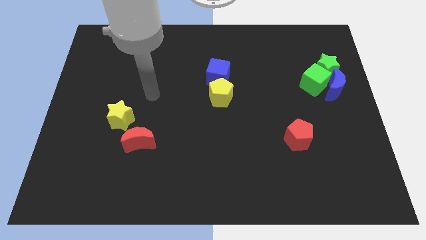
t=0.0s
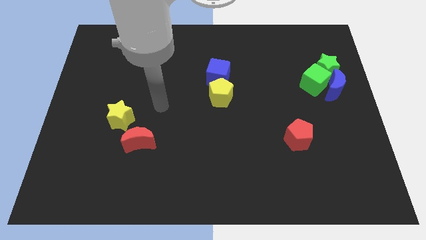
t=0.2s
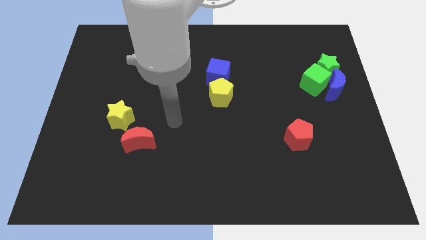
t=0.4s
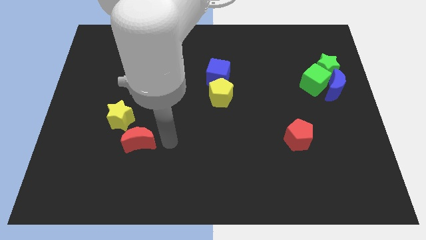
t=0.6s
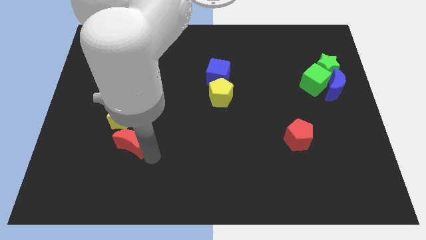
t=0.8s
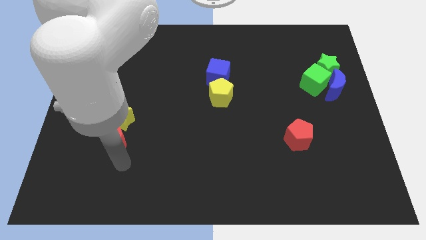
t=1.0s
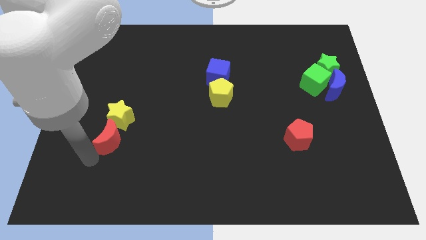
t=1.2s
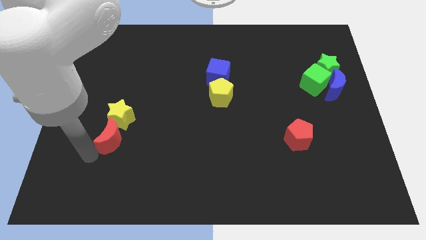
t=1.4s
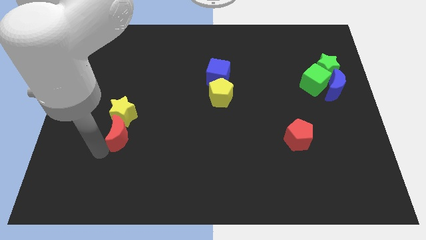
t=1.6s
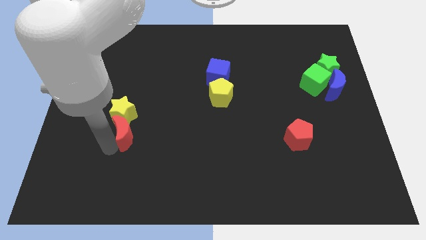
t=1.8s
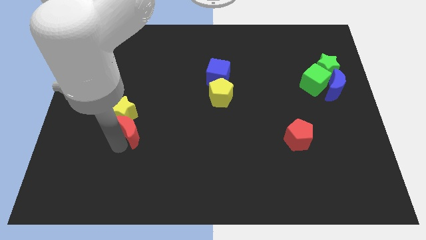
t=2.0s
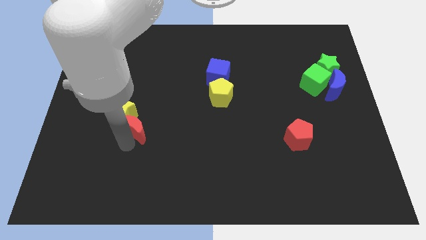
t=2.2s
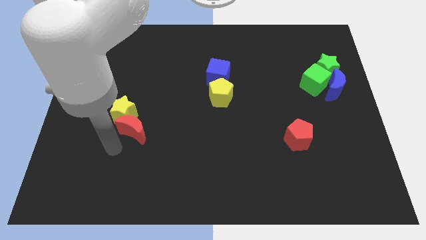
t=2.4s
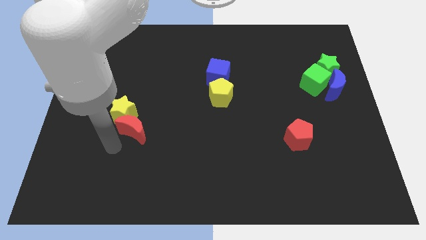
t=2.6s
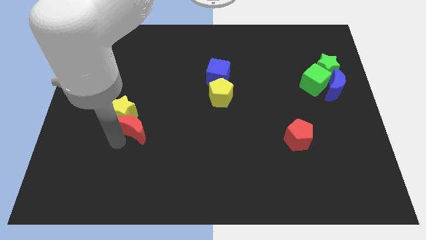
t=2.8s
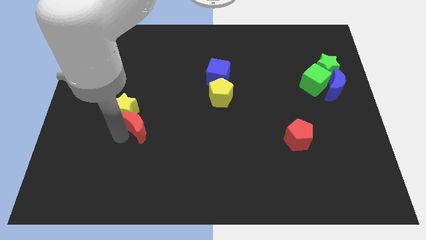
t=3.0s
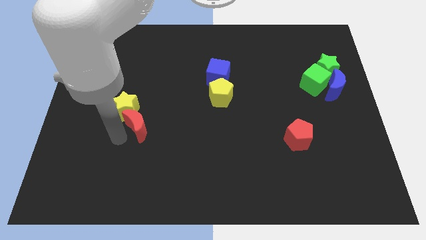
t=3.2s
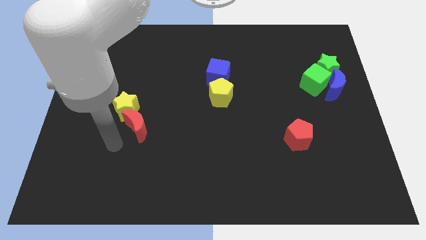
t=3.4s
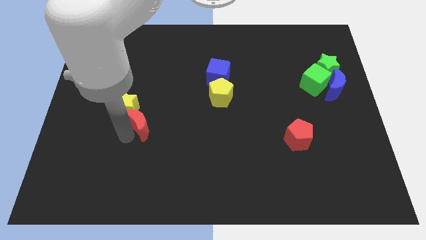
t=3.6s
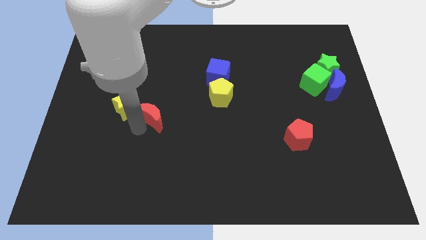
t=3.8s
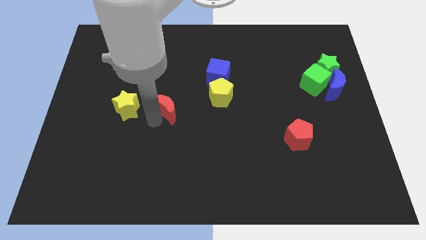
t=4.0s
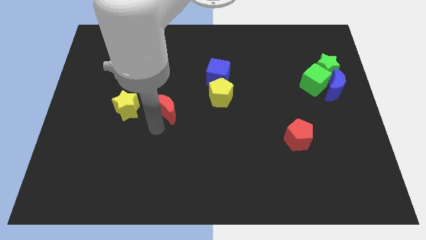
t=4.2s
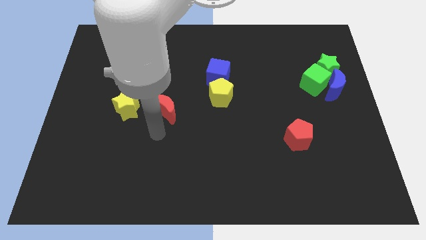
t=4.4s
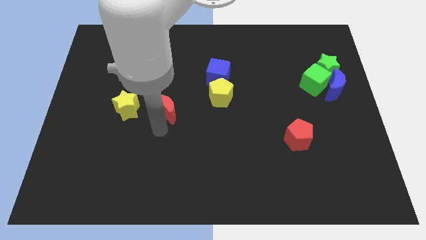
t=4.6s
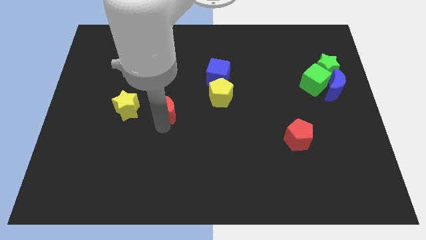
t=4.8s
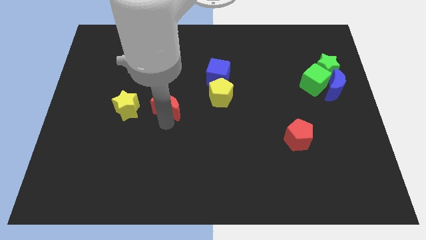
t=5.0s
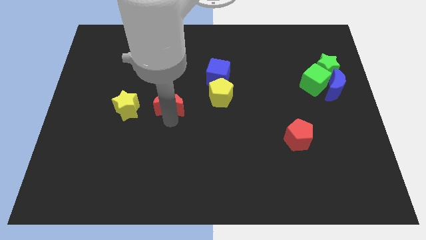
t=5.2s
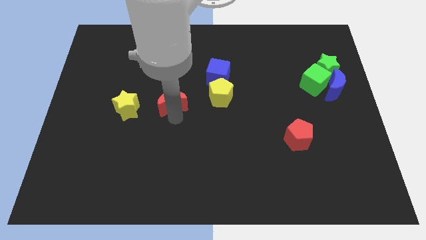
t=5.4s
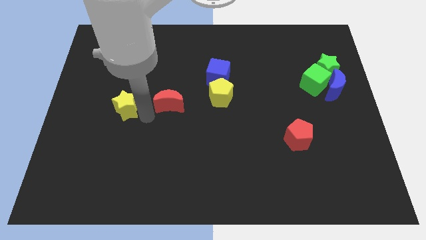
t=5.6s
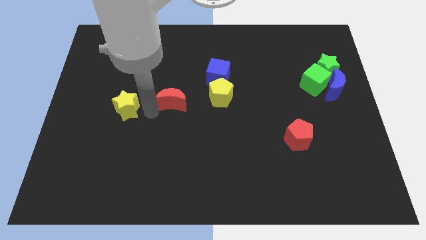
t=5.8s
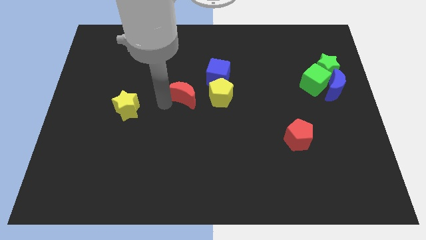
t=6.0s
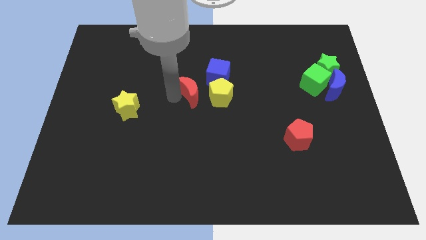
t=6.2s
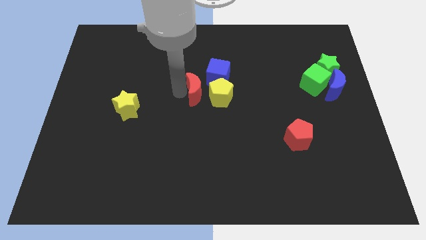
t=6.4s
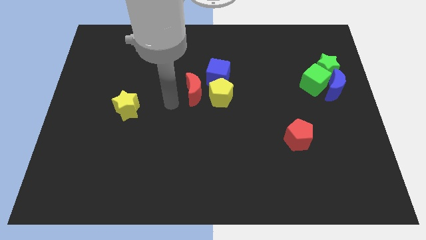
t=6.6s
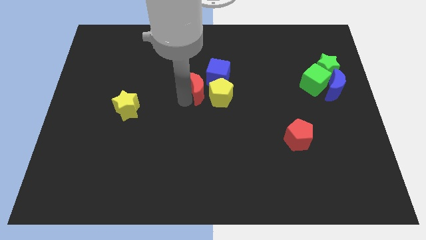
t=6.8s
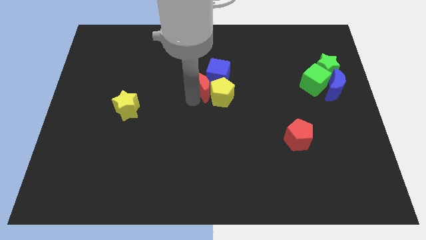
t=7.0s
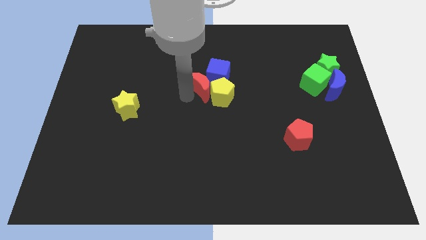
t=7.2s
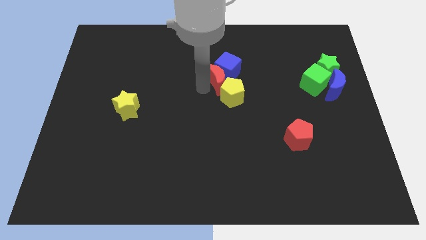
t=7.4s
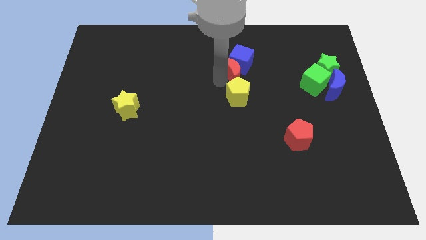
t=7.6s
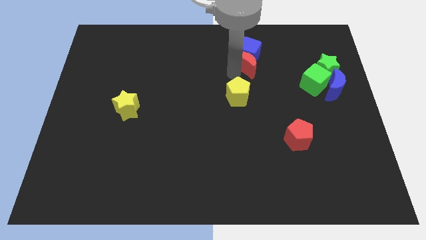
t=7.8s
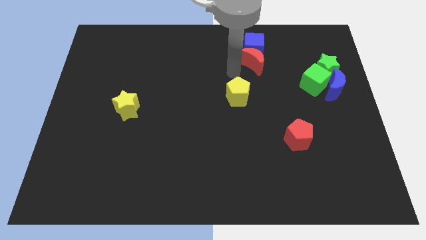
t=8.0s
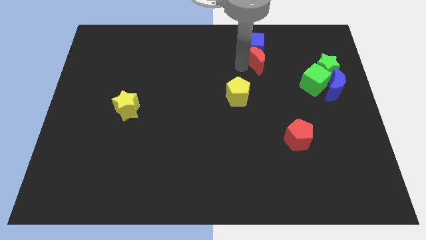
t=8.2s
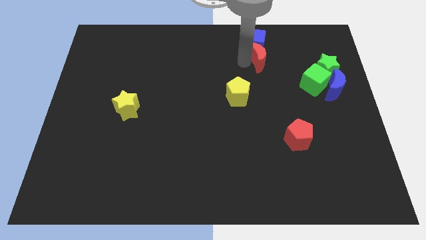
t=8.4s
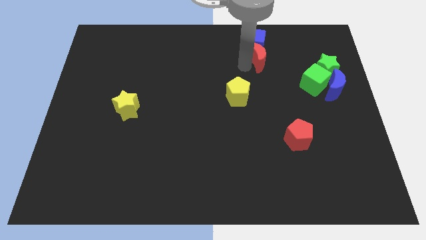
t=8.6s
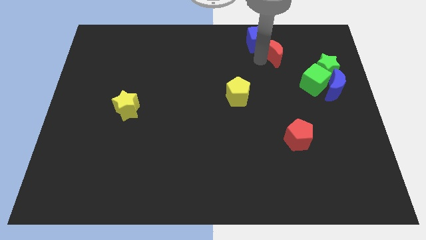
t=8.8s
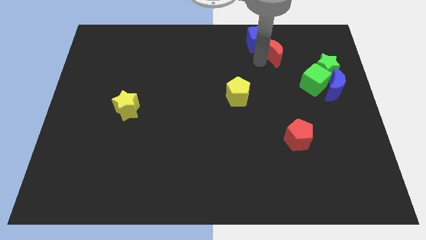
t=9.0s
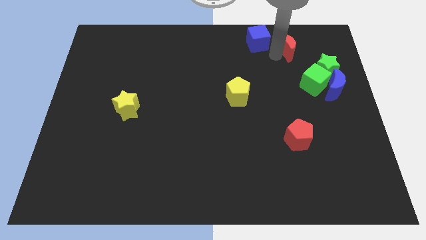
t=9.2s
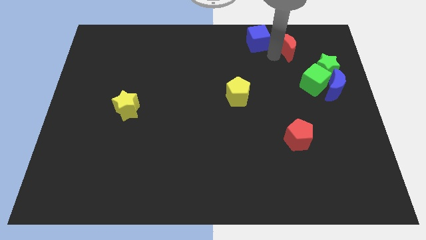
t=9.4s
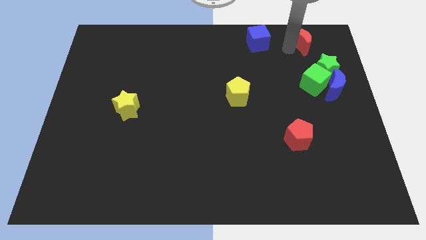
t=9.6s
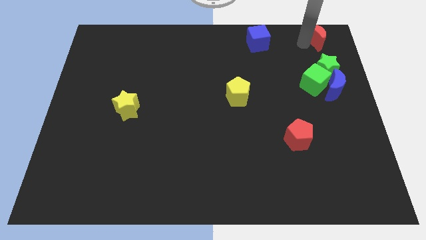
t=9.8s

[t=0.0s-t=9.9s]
slide the red moon to the top right corner
